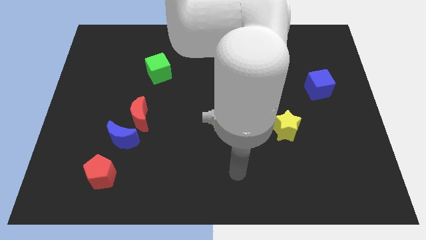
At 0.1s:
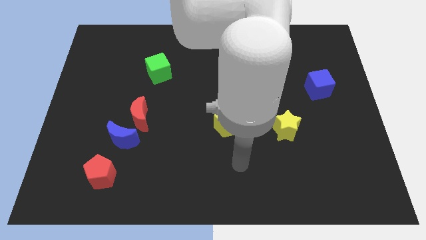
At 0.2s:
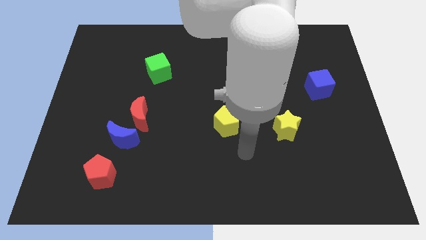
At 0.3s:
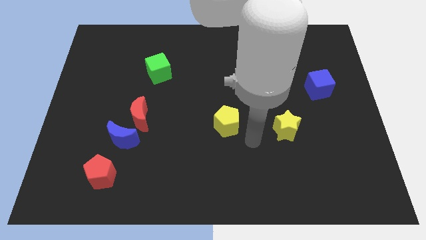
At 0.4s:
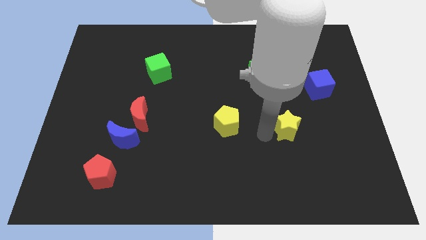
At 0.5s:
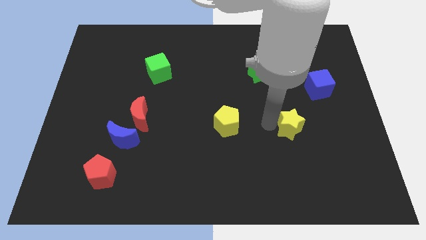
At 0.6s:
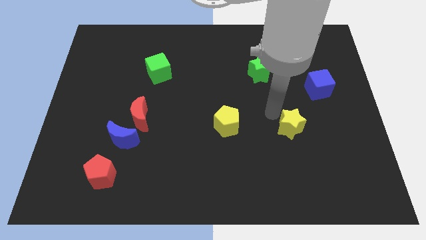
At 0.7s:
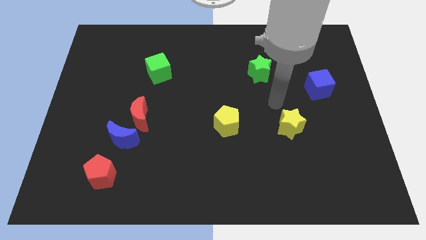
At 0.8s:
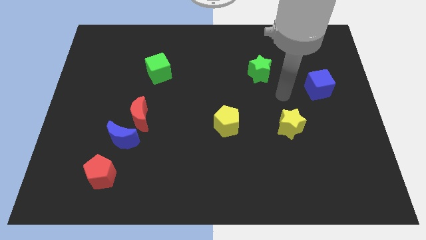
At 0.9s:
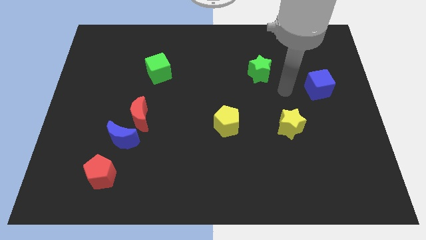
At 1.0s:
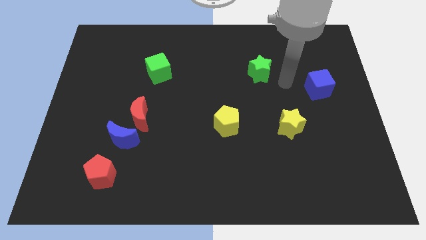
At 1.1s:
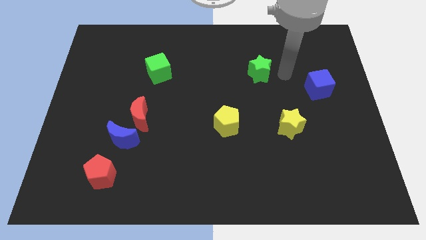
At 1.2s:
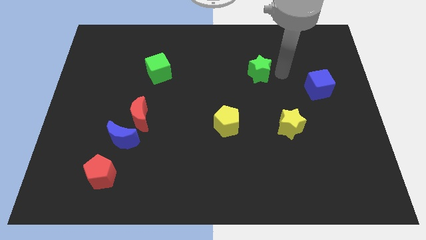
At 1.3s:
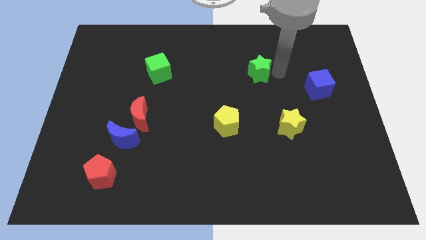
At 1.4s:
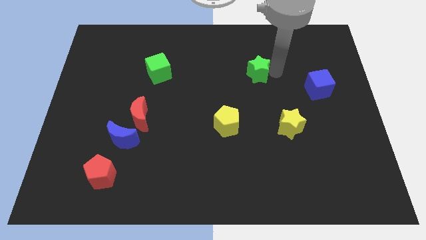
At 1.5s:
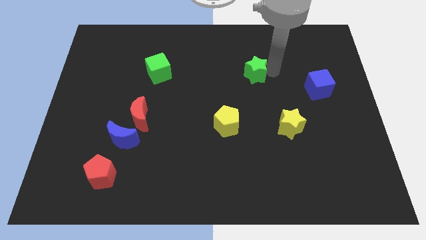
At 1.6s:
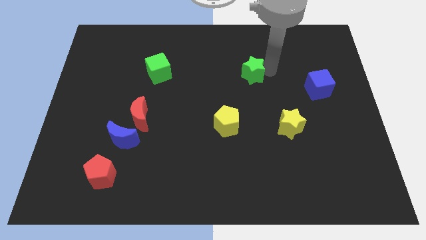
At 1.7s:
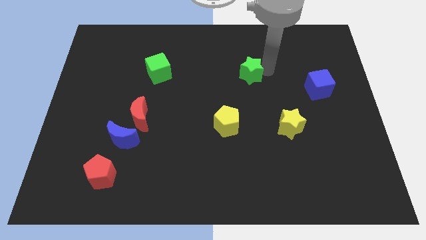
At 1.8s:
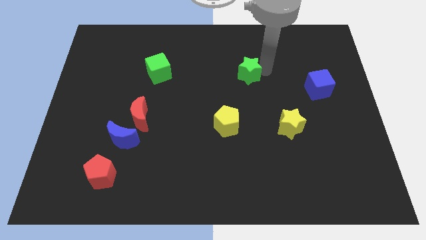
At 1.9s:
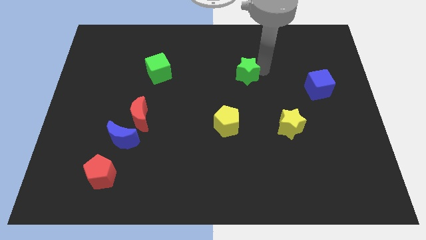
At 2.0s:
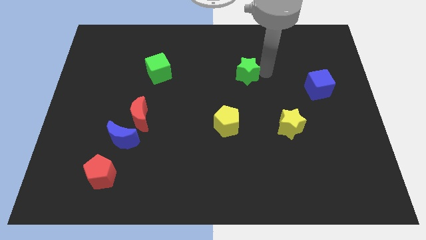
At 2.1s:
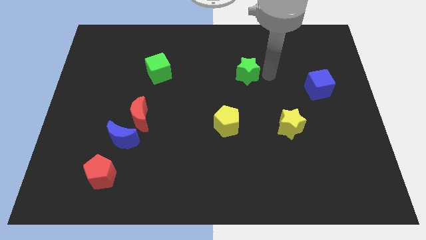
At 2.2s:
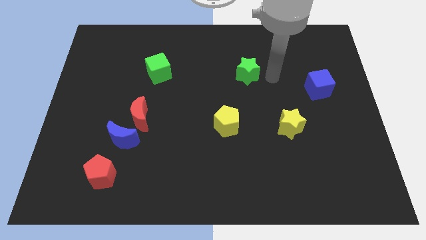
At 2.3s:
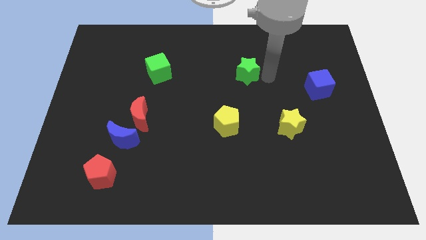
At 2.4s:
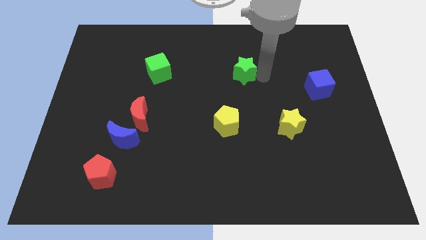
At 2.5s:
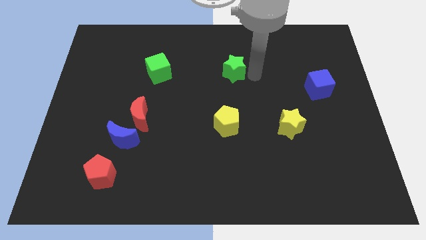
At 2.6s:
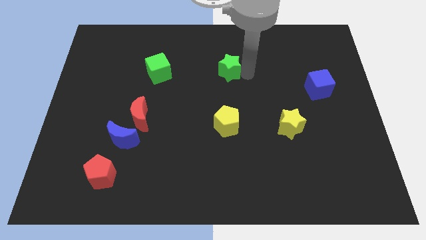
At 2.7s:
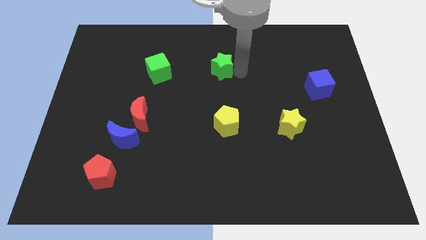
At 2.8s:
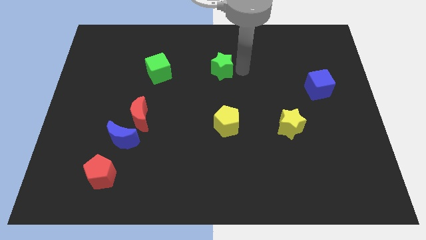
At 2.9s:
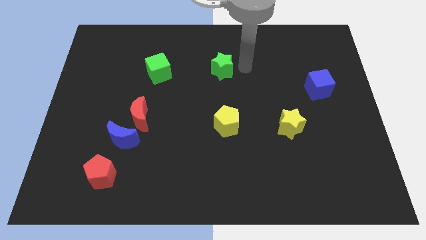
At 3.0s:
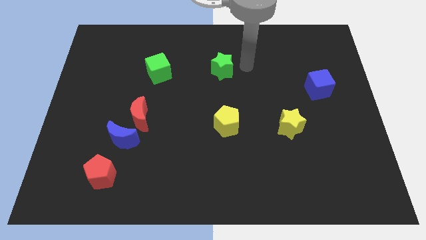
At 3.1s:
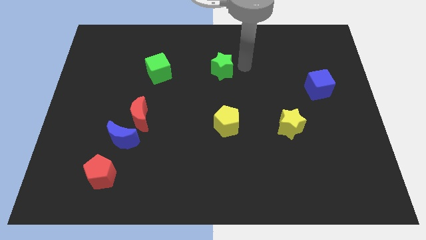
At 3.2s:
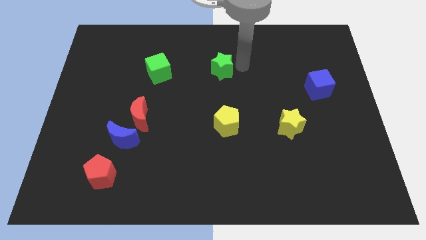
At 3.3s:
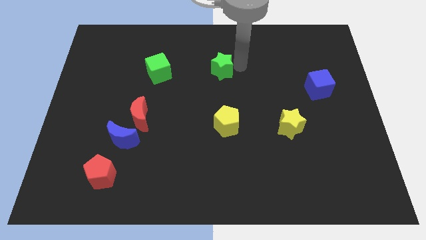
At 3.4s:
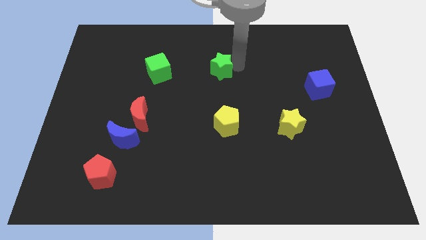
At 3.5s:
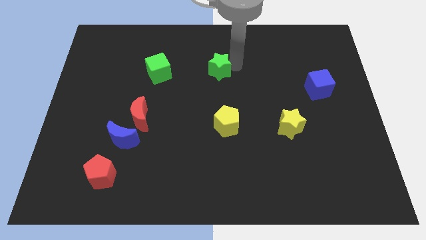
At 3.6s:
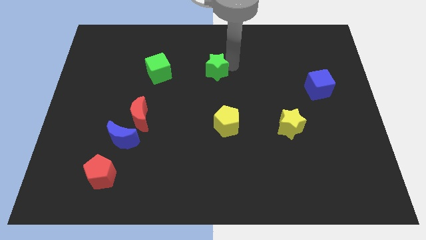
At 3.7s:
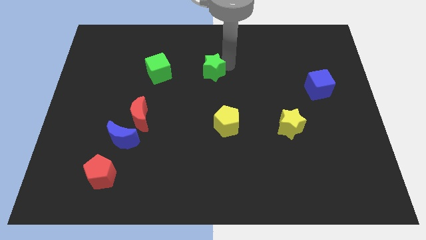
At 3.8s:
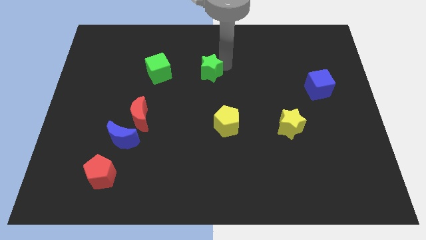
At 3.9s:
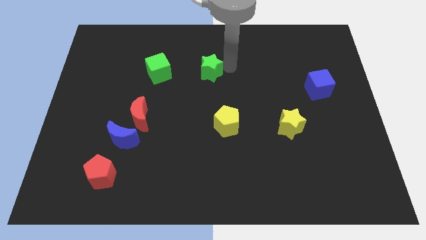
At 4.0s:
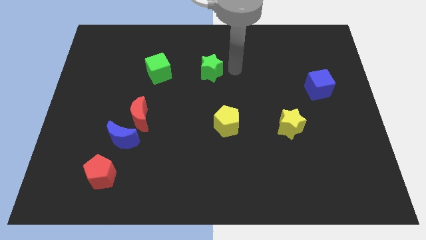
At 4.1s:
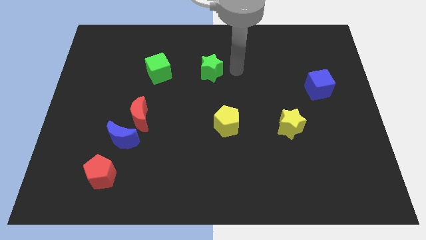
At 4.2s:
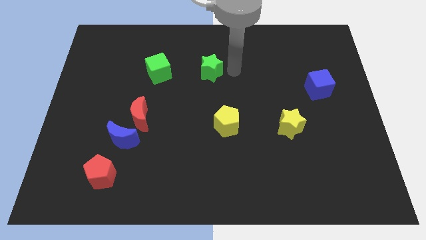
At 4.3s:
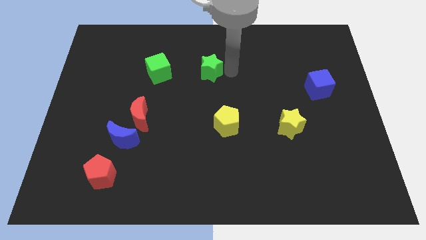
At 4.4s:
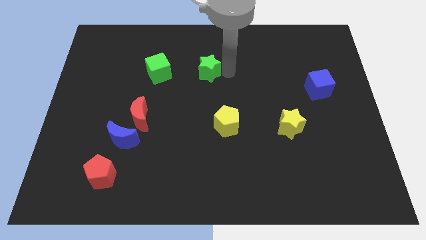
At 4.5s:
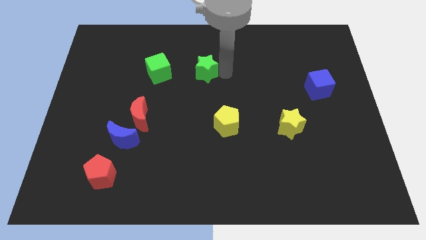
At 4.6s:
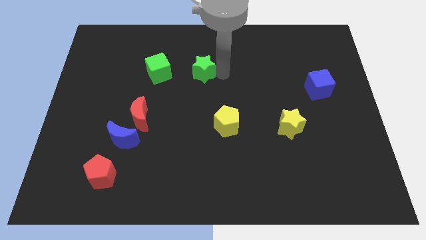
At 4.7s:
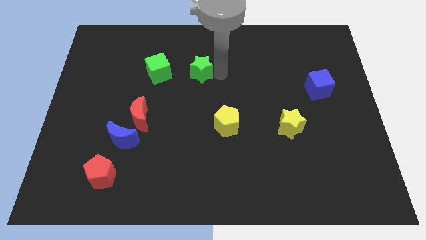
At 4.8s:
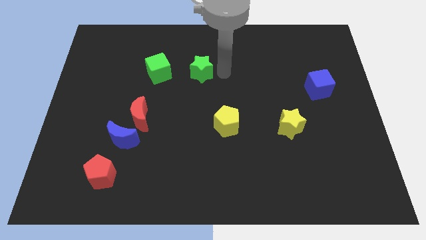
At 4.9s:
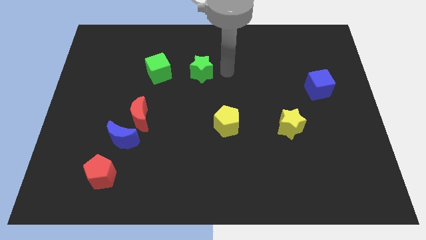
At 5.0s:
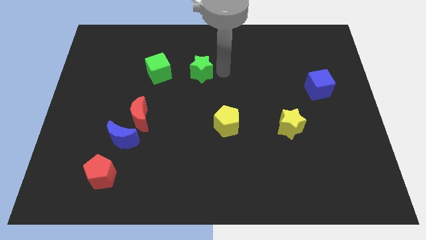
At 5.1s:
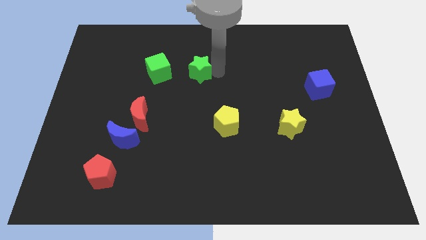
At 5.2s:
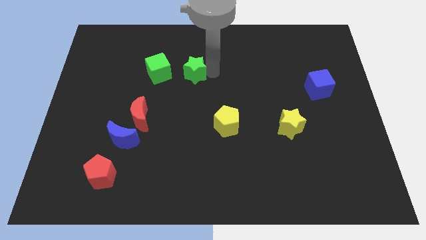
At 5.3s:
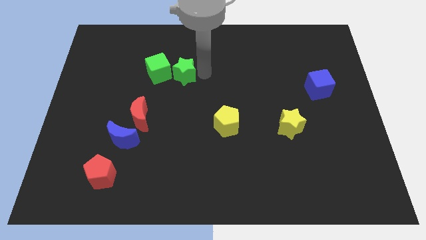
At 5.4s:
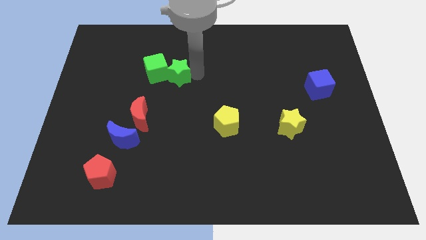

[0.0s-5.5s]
push the green star next to the green cube

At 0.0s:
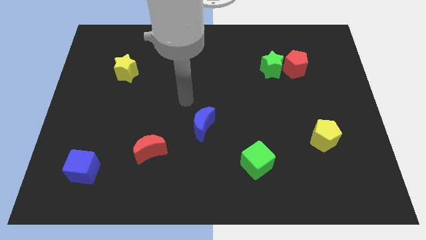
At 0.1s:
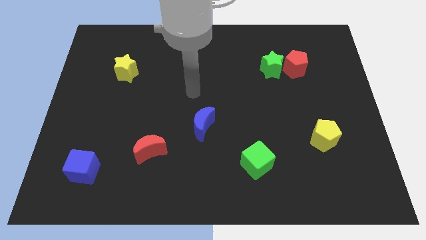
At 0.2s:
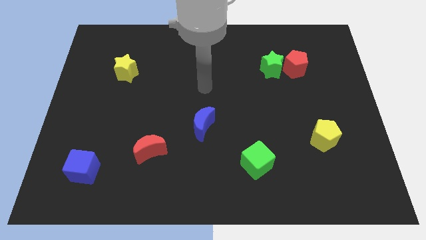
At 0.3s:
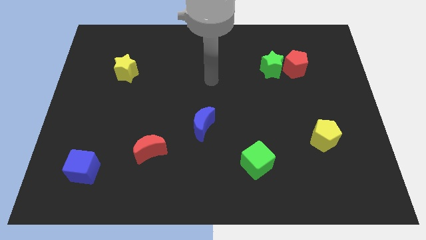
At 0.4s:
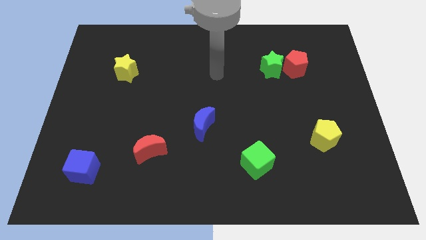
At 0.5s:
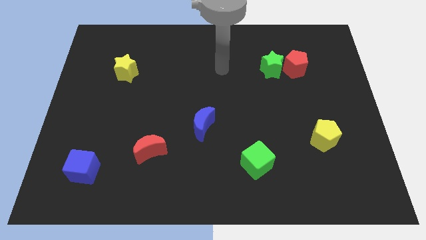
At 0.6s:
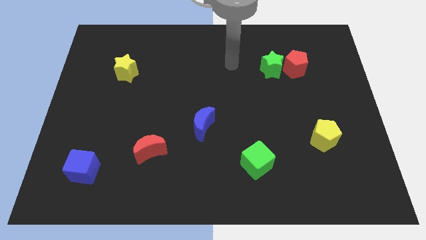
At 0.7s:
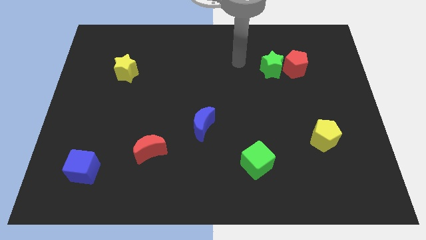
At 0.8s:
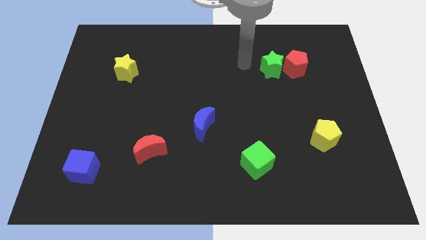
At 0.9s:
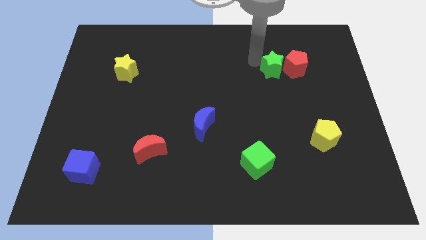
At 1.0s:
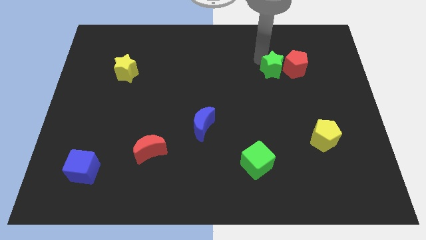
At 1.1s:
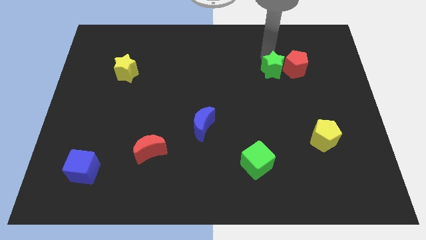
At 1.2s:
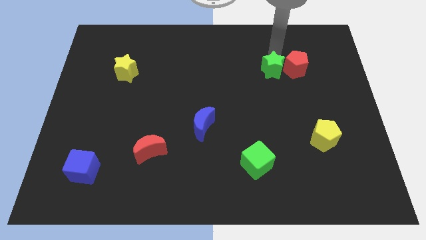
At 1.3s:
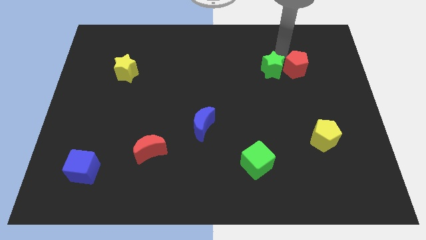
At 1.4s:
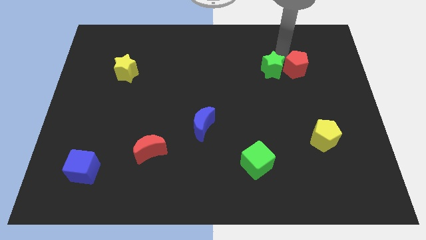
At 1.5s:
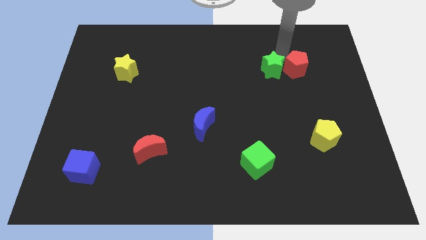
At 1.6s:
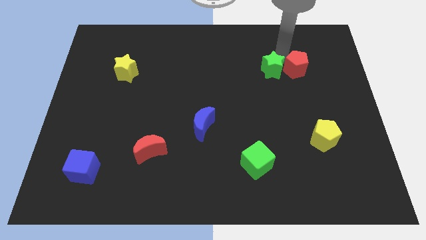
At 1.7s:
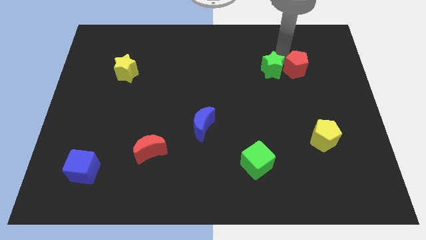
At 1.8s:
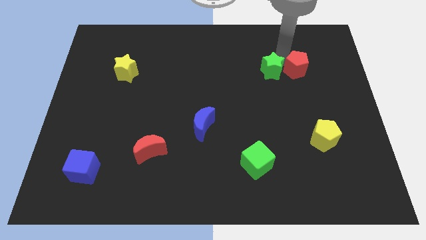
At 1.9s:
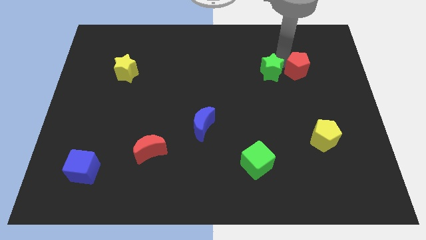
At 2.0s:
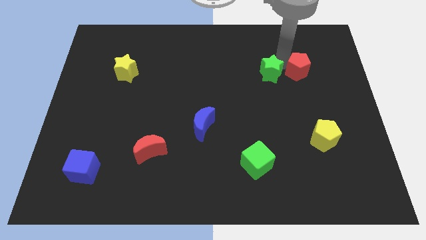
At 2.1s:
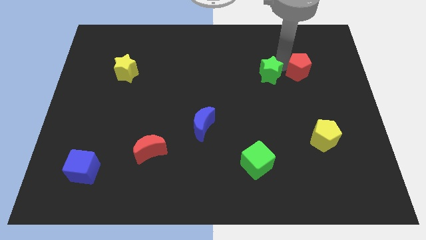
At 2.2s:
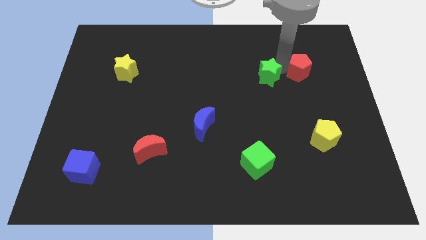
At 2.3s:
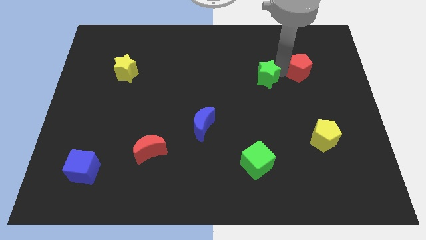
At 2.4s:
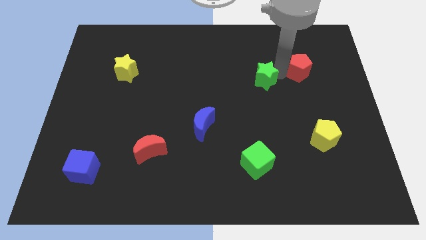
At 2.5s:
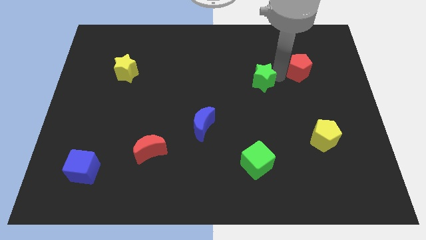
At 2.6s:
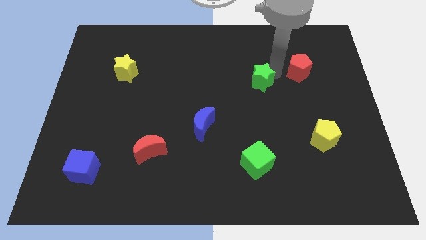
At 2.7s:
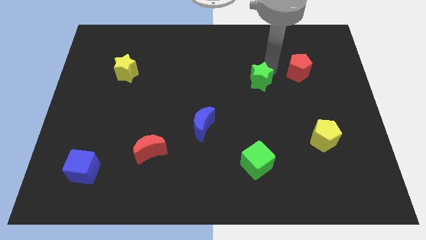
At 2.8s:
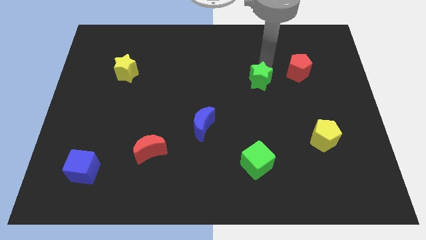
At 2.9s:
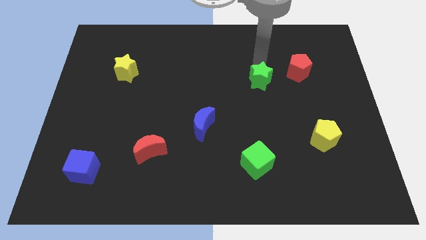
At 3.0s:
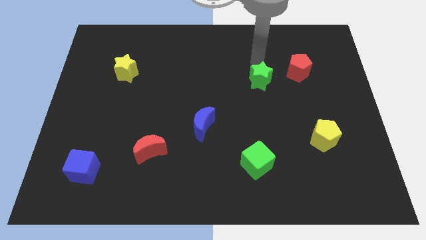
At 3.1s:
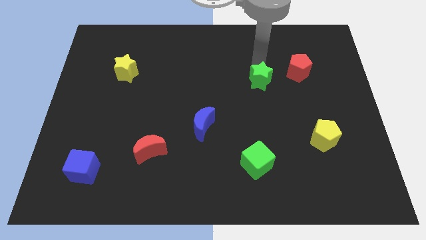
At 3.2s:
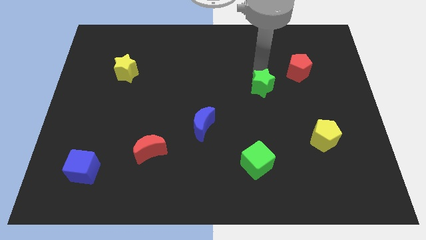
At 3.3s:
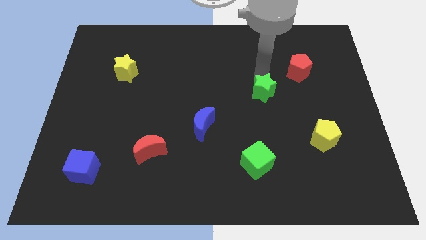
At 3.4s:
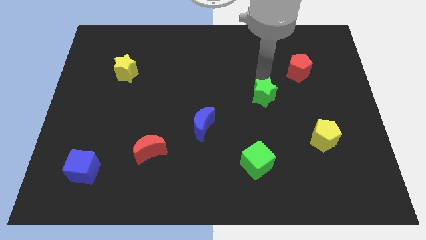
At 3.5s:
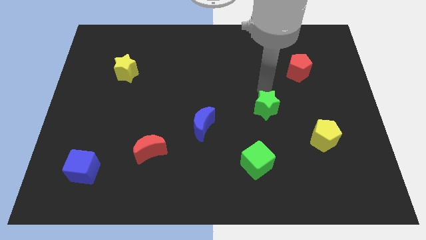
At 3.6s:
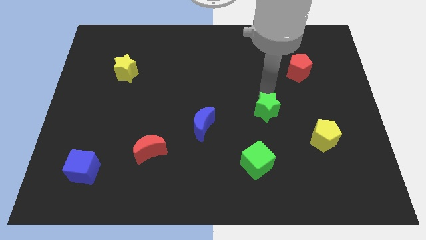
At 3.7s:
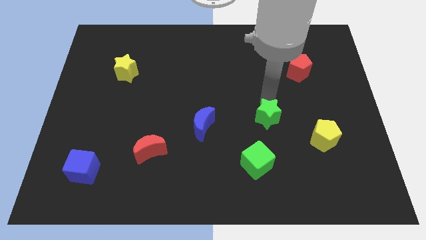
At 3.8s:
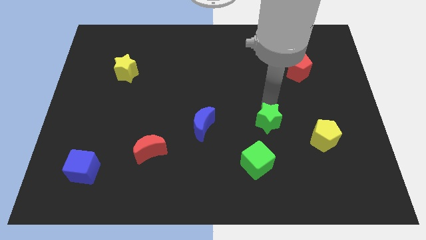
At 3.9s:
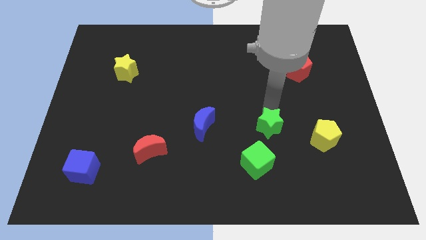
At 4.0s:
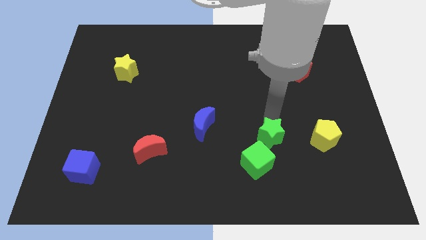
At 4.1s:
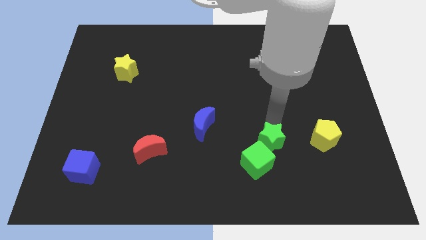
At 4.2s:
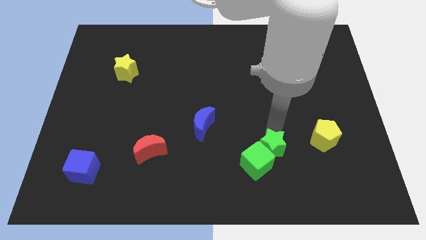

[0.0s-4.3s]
slide the green star towards the green cube
